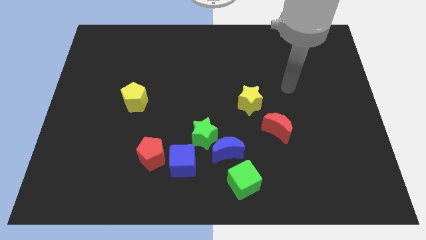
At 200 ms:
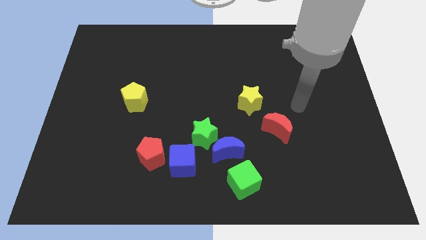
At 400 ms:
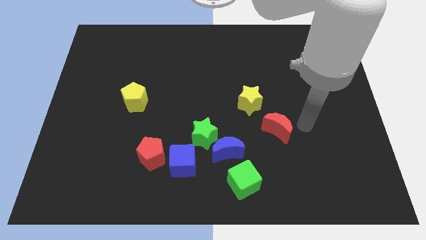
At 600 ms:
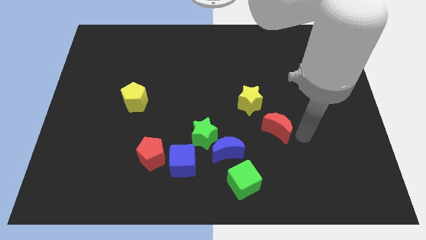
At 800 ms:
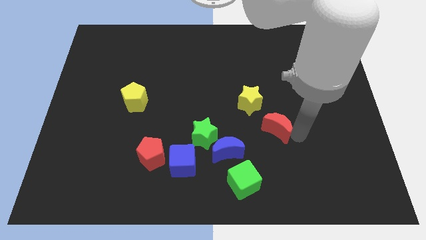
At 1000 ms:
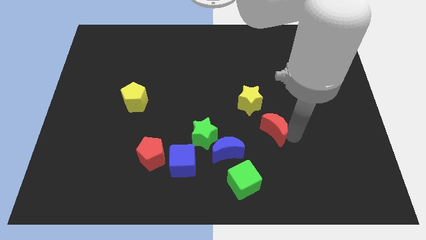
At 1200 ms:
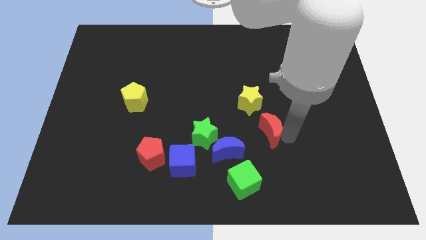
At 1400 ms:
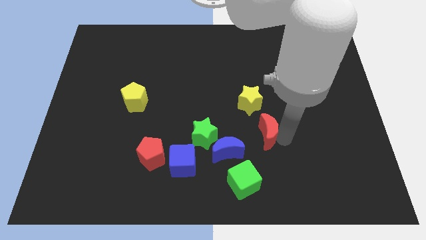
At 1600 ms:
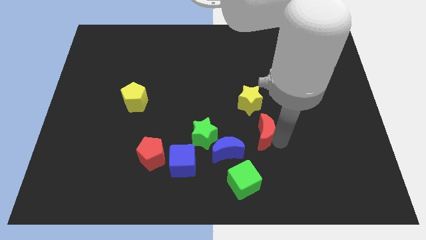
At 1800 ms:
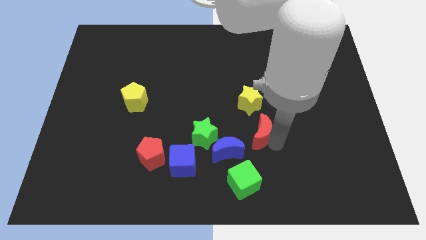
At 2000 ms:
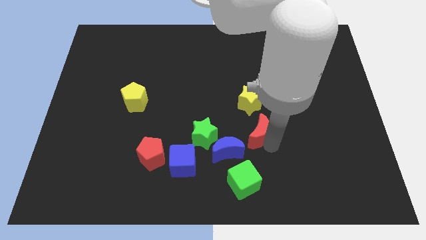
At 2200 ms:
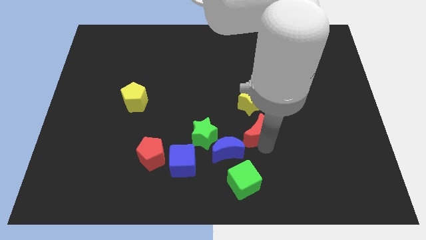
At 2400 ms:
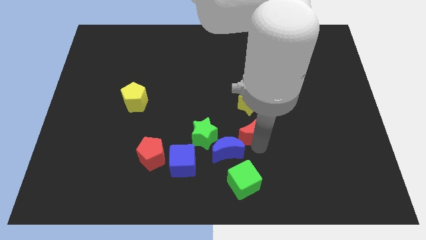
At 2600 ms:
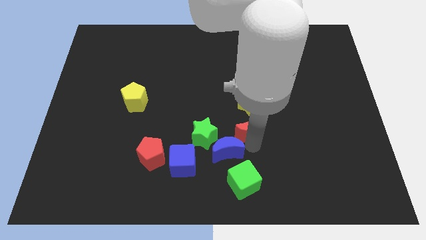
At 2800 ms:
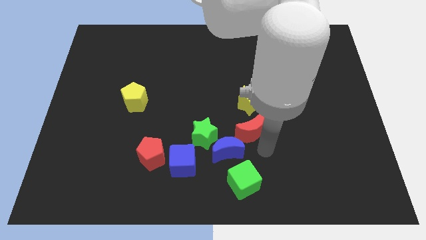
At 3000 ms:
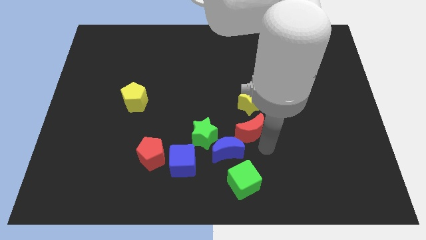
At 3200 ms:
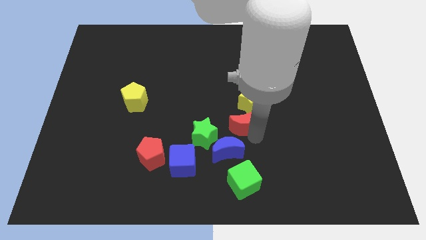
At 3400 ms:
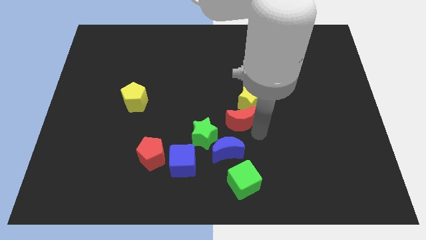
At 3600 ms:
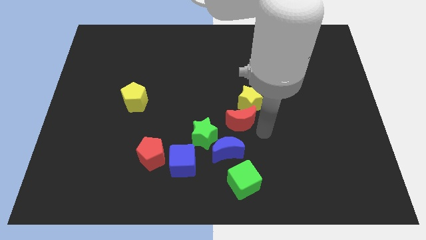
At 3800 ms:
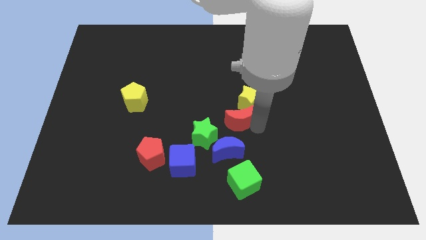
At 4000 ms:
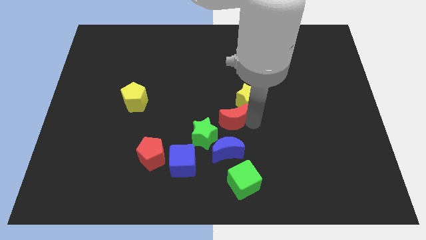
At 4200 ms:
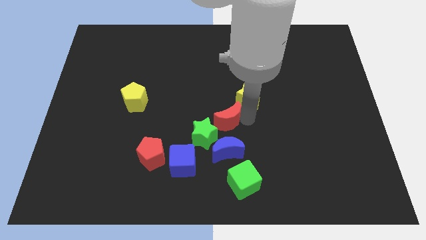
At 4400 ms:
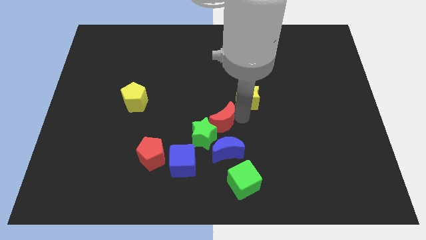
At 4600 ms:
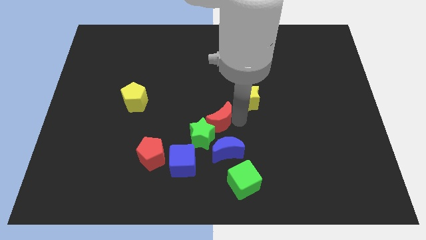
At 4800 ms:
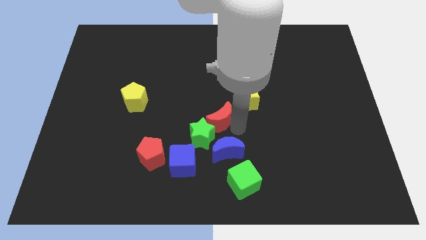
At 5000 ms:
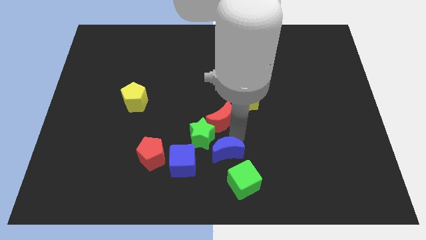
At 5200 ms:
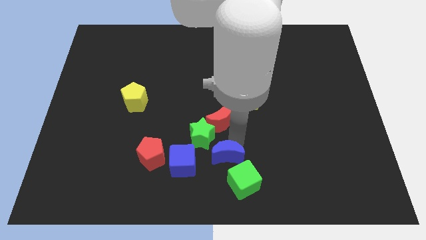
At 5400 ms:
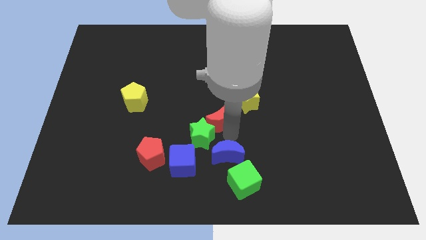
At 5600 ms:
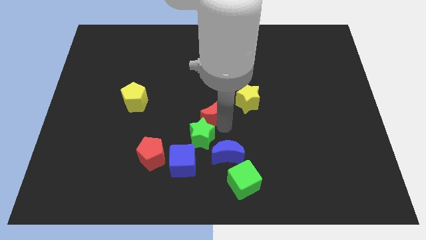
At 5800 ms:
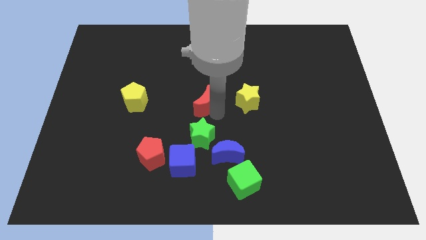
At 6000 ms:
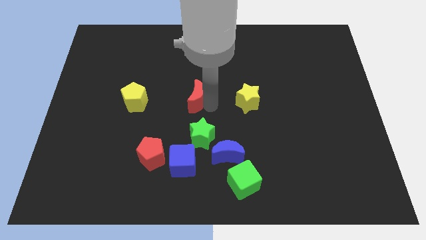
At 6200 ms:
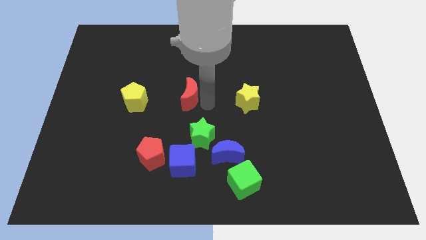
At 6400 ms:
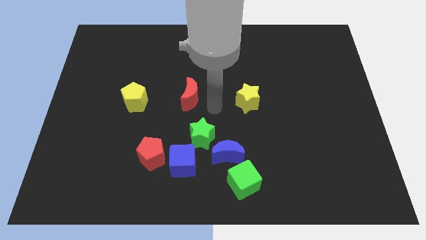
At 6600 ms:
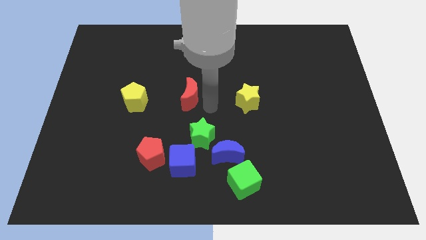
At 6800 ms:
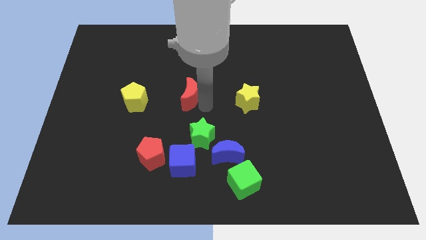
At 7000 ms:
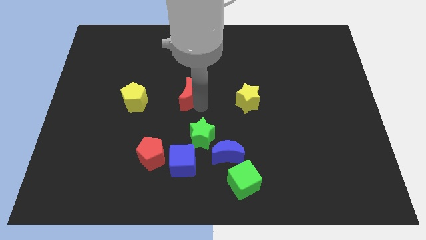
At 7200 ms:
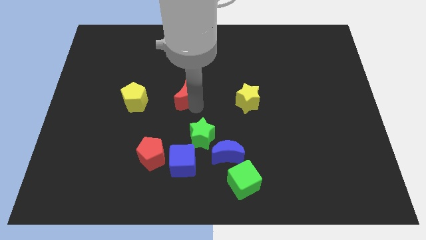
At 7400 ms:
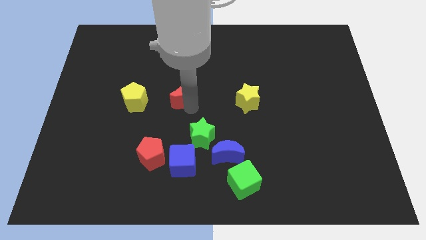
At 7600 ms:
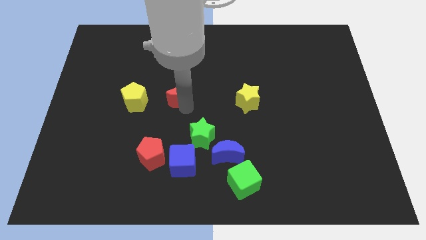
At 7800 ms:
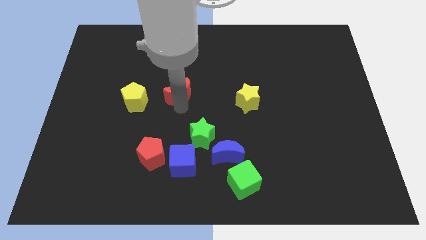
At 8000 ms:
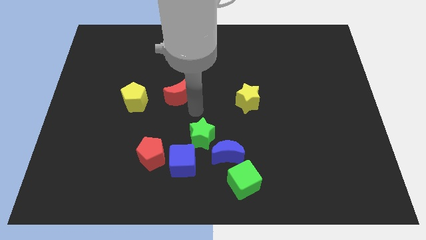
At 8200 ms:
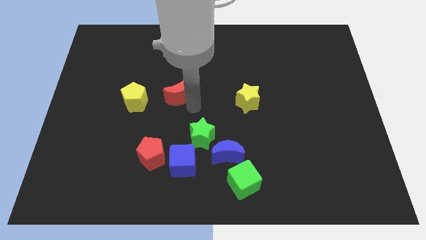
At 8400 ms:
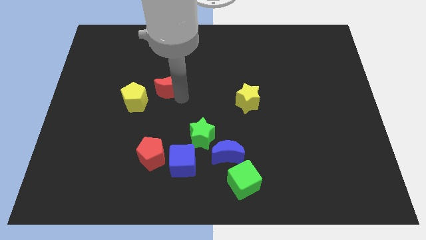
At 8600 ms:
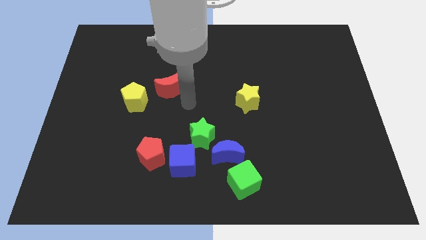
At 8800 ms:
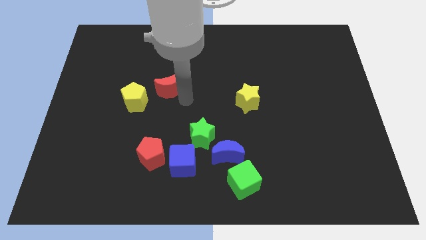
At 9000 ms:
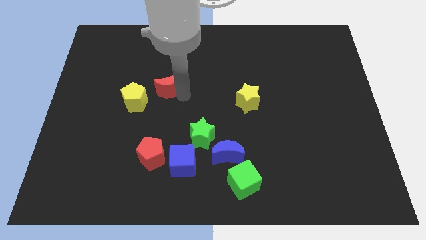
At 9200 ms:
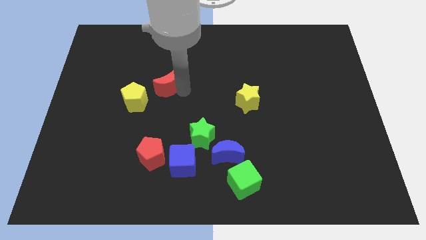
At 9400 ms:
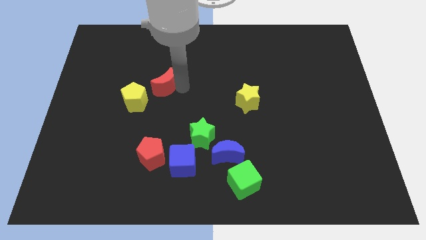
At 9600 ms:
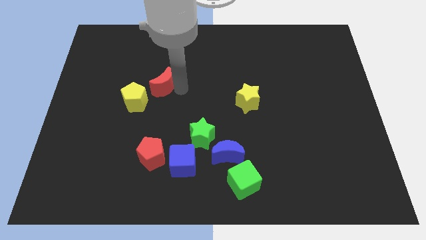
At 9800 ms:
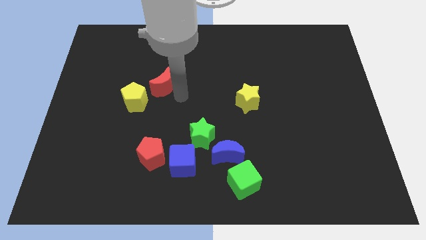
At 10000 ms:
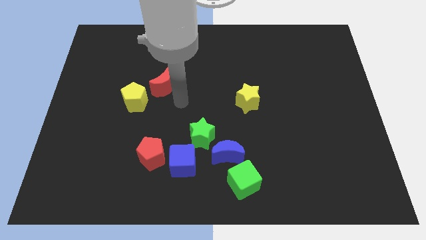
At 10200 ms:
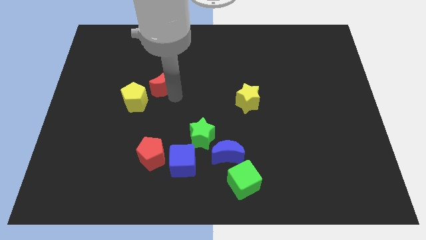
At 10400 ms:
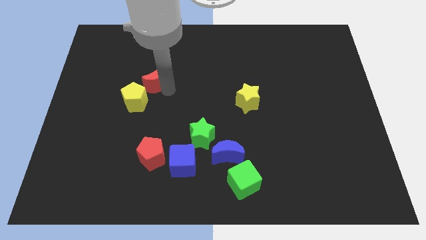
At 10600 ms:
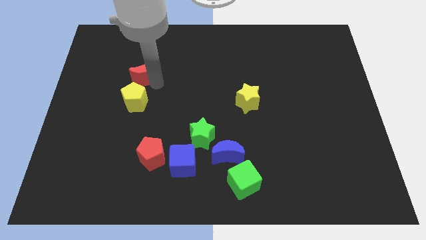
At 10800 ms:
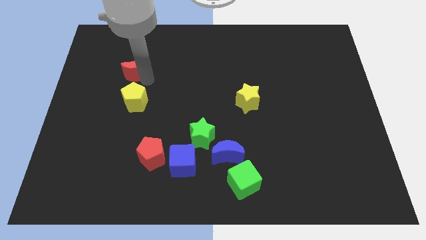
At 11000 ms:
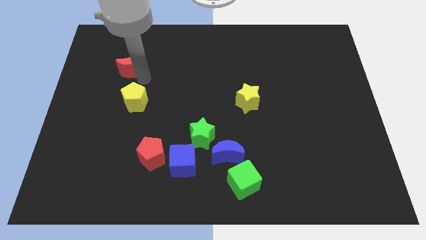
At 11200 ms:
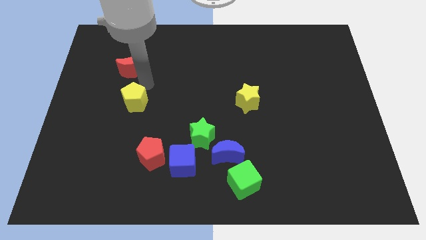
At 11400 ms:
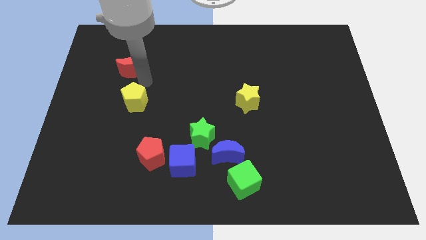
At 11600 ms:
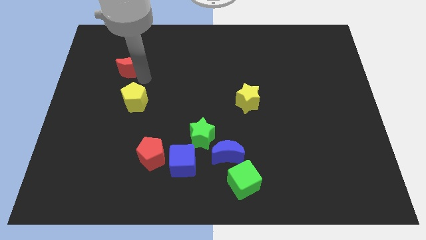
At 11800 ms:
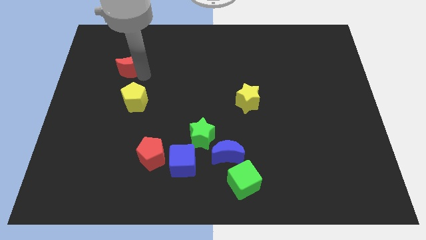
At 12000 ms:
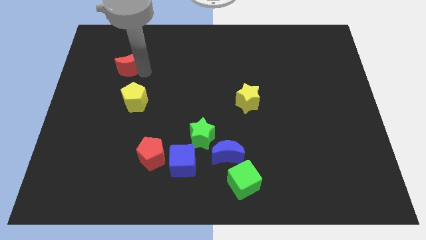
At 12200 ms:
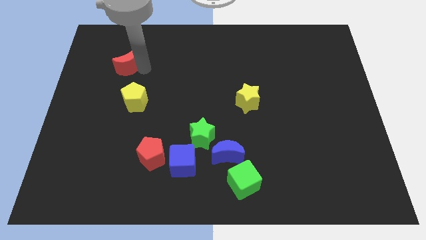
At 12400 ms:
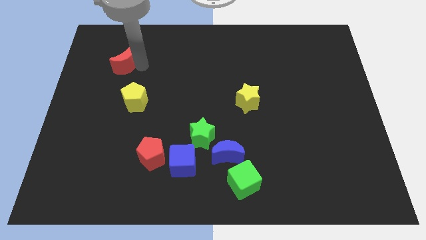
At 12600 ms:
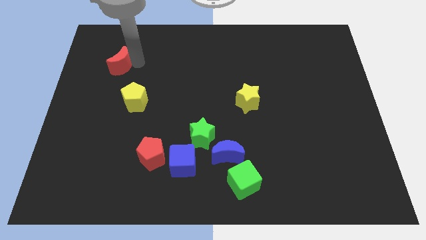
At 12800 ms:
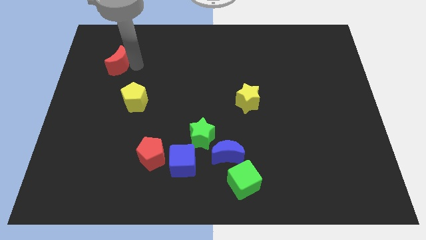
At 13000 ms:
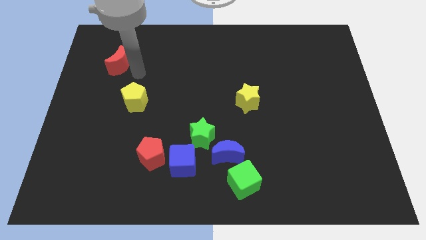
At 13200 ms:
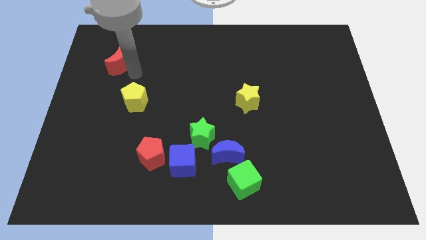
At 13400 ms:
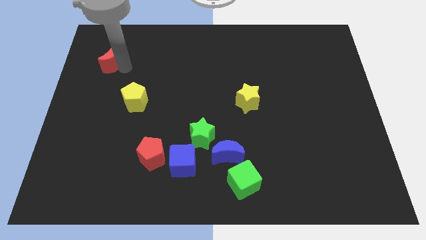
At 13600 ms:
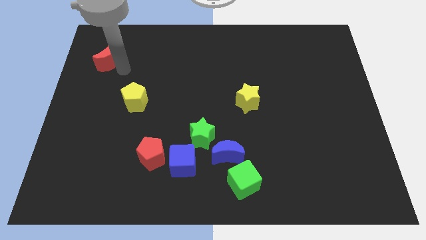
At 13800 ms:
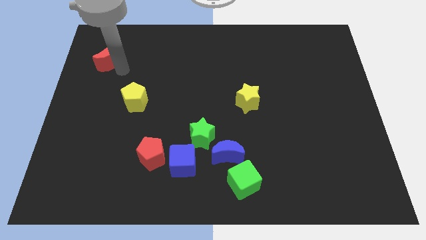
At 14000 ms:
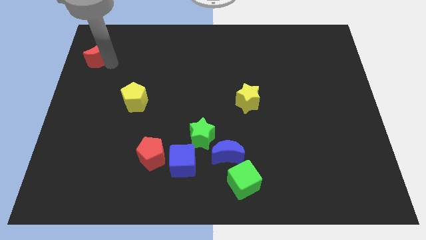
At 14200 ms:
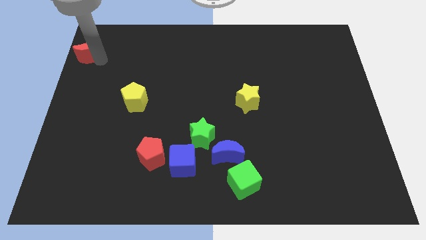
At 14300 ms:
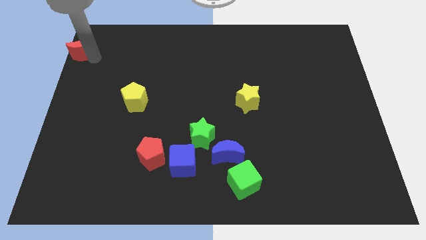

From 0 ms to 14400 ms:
move the red moon to the top left

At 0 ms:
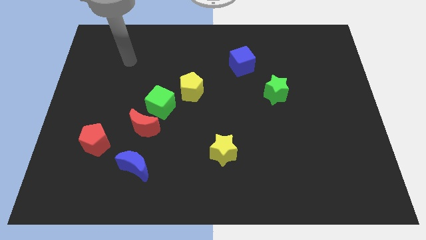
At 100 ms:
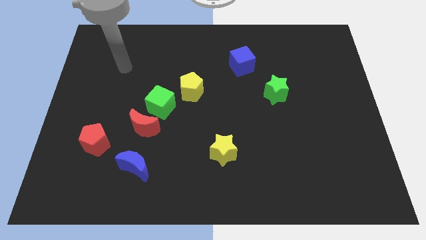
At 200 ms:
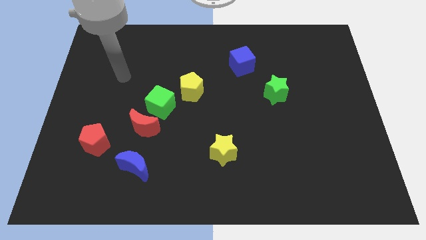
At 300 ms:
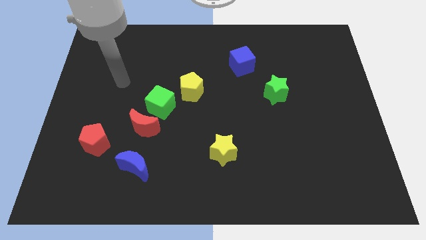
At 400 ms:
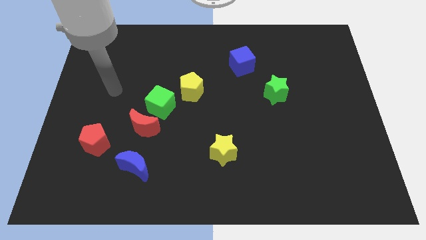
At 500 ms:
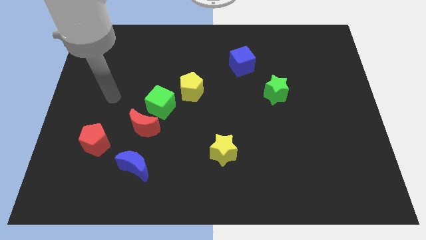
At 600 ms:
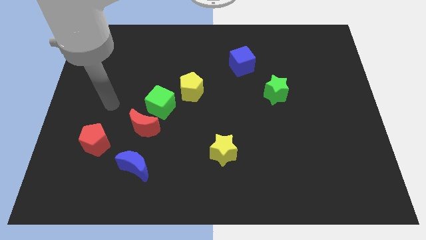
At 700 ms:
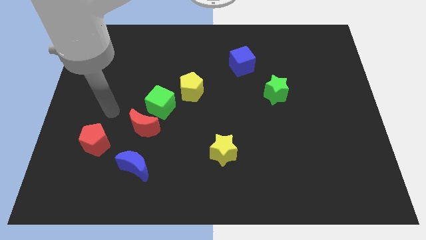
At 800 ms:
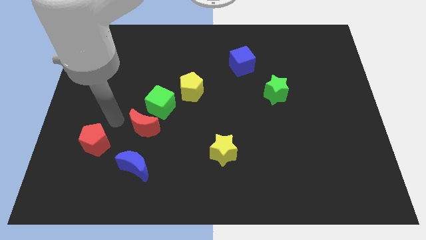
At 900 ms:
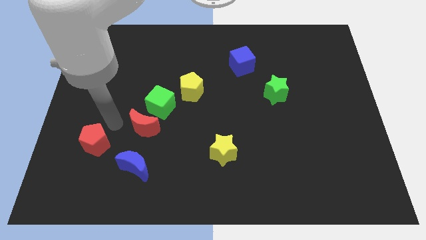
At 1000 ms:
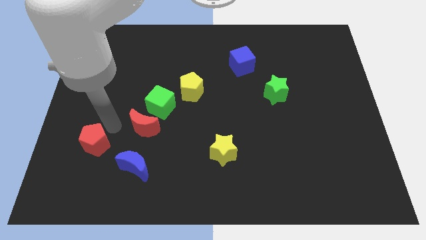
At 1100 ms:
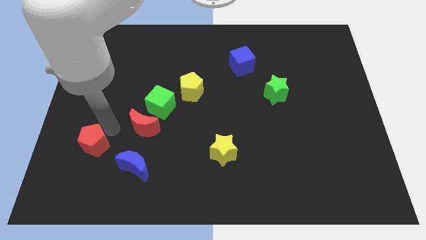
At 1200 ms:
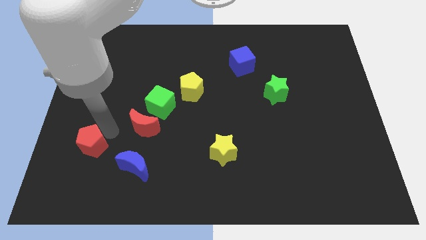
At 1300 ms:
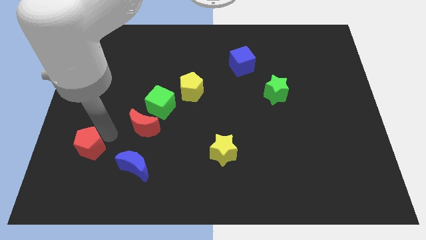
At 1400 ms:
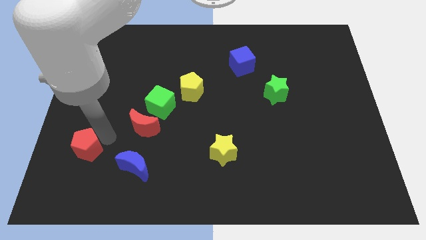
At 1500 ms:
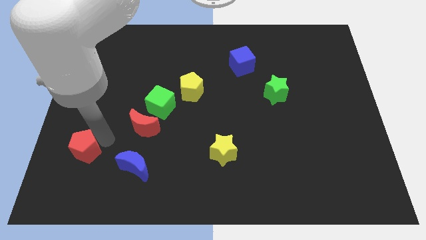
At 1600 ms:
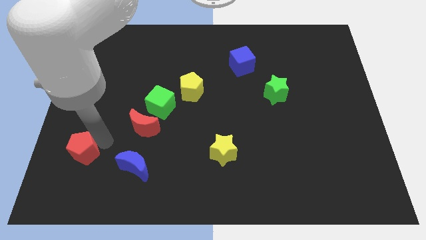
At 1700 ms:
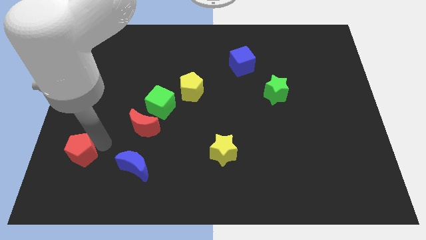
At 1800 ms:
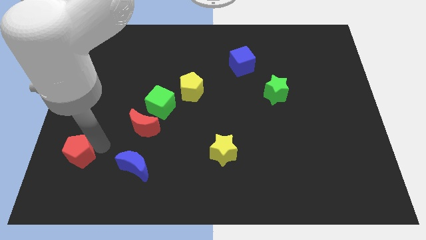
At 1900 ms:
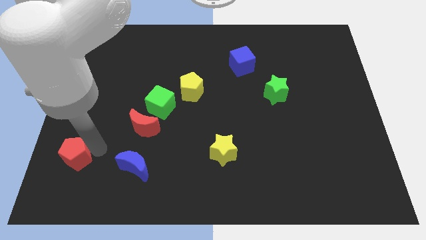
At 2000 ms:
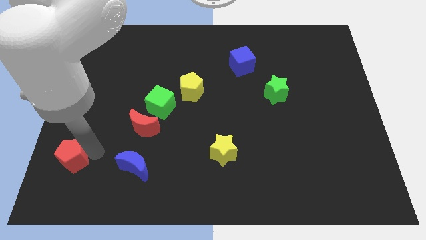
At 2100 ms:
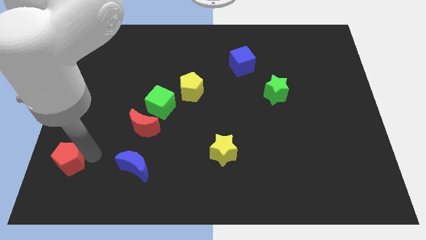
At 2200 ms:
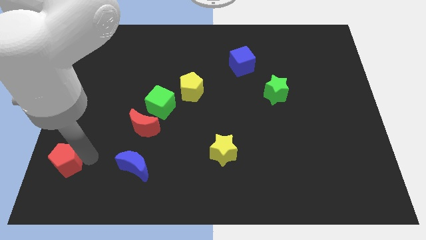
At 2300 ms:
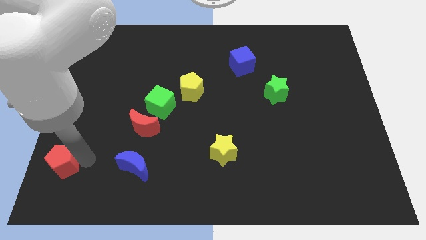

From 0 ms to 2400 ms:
move the red pentagon to the lower left corner
